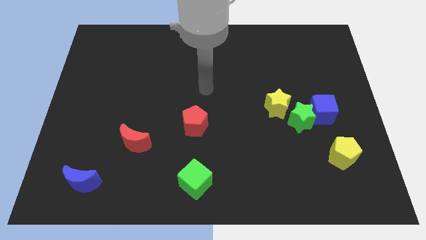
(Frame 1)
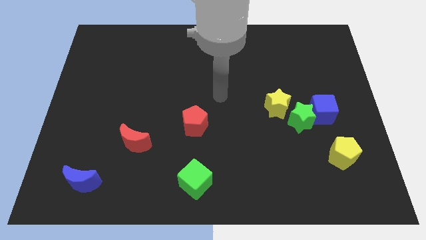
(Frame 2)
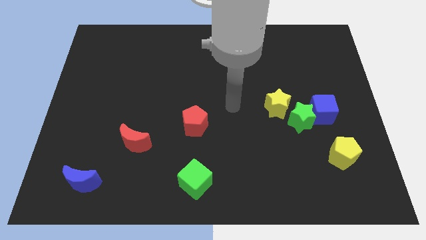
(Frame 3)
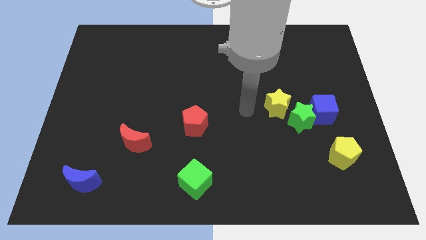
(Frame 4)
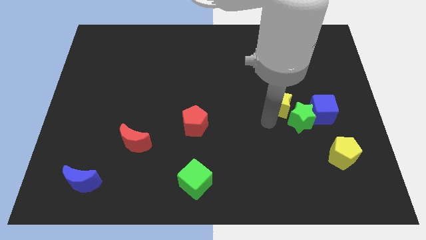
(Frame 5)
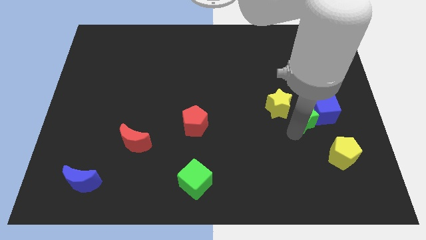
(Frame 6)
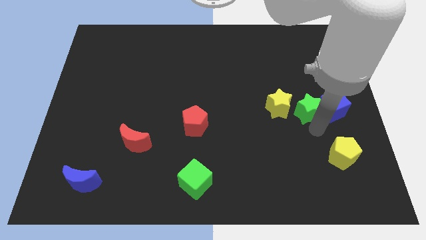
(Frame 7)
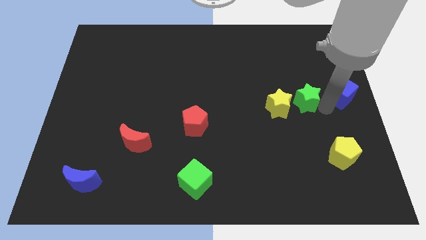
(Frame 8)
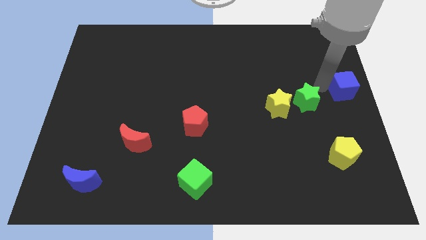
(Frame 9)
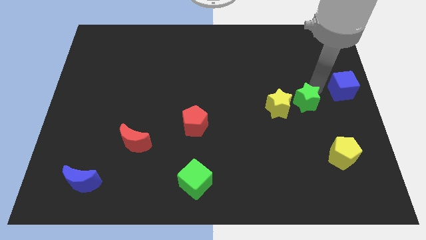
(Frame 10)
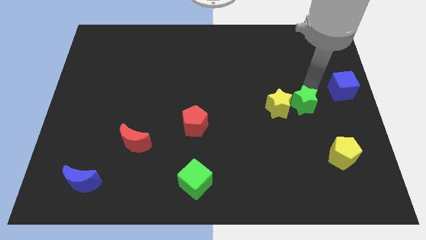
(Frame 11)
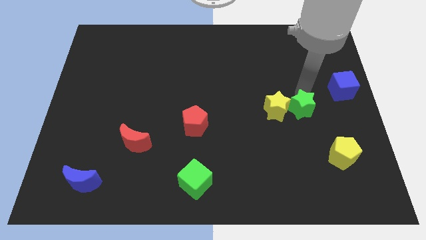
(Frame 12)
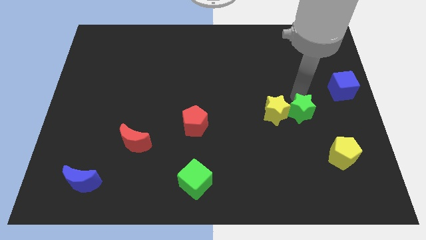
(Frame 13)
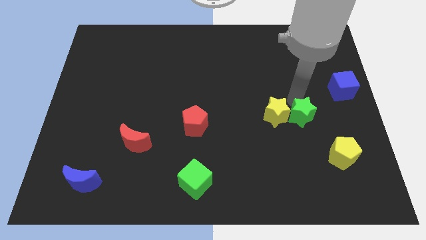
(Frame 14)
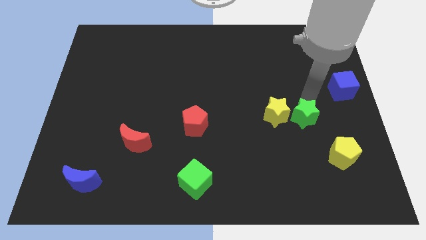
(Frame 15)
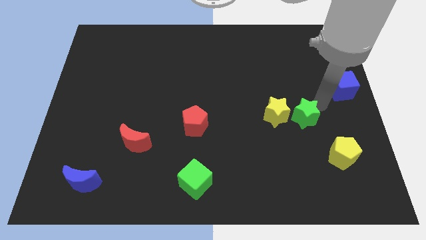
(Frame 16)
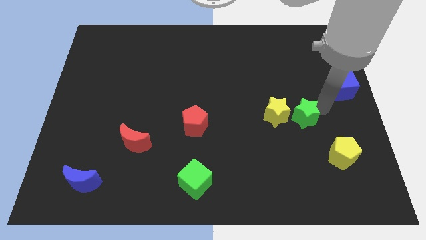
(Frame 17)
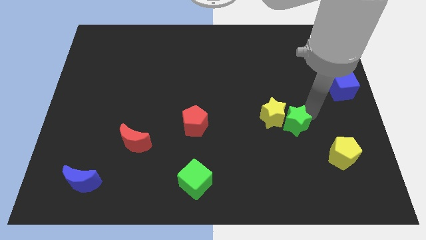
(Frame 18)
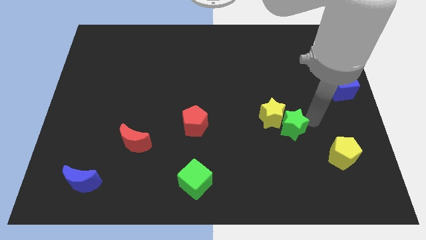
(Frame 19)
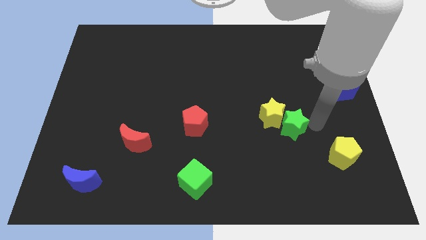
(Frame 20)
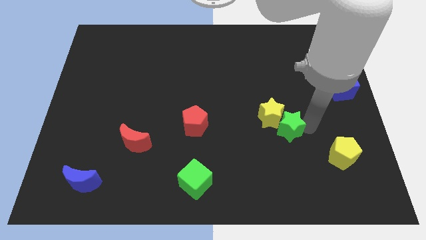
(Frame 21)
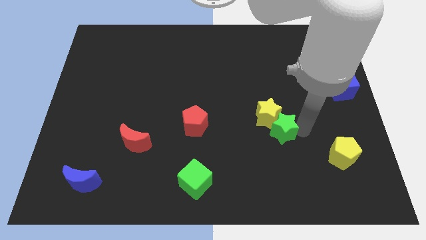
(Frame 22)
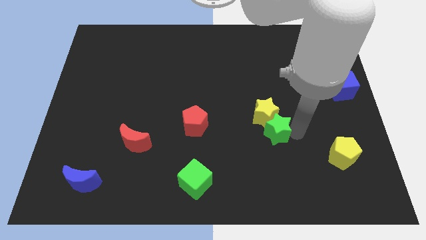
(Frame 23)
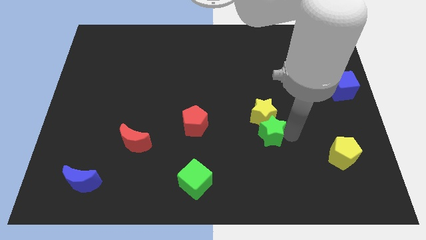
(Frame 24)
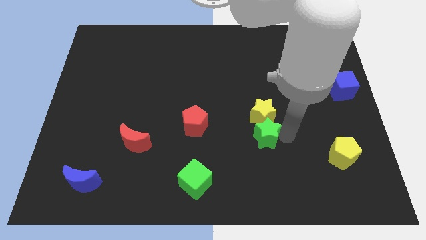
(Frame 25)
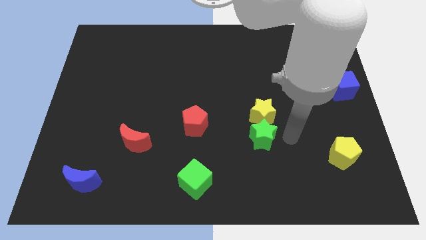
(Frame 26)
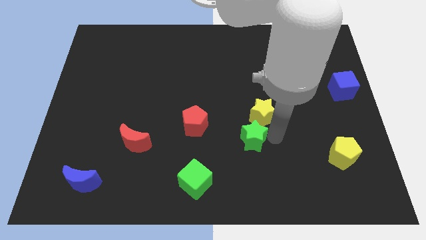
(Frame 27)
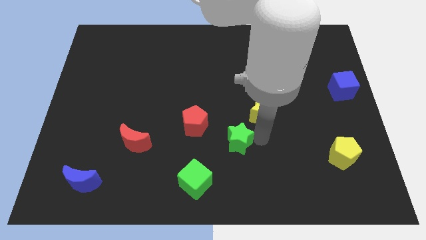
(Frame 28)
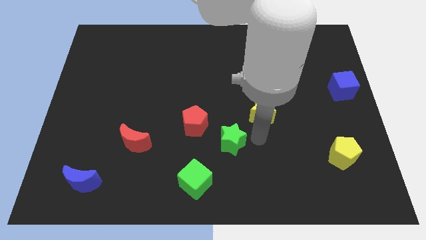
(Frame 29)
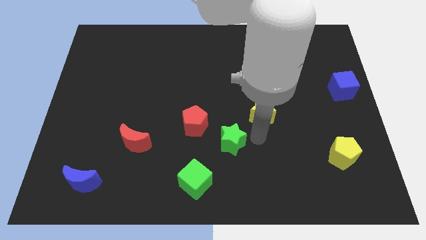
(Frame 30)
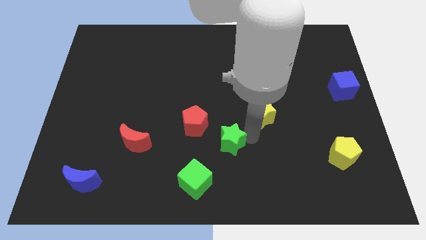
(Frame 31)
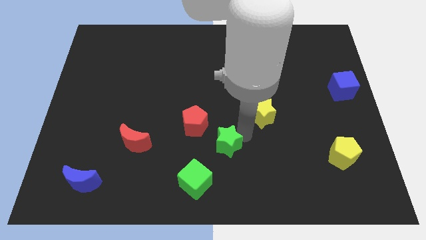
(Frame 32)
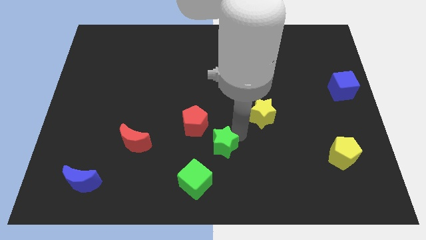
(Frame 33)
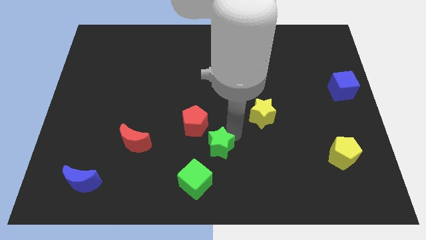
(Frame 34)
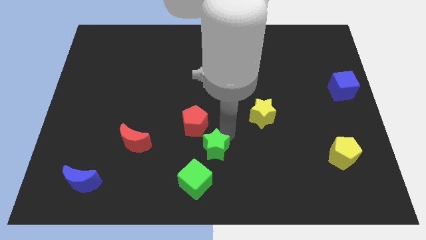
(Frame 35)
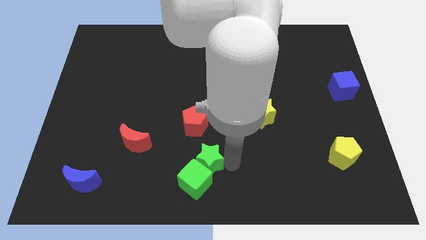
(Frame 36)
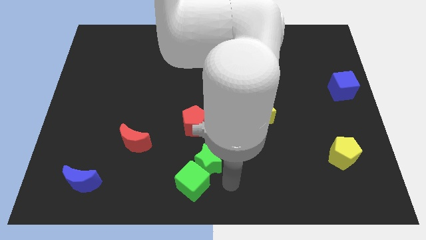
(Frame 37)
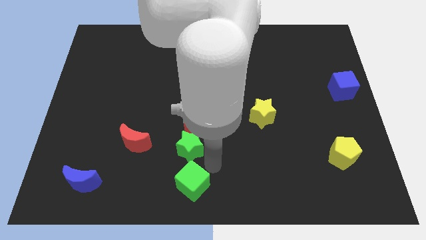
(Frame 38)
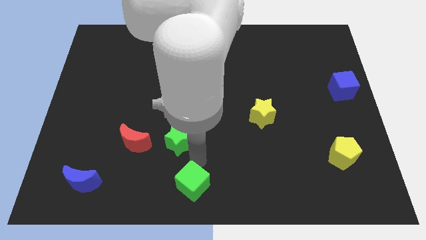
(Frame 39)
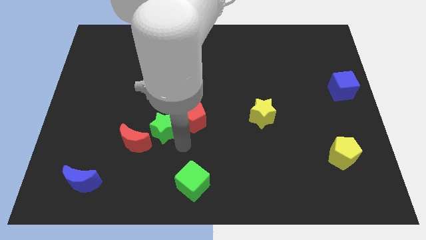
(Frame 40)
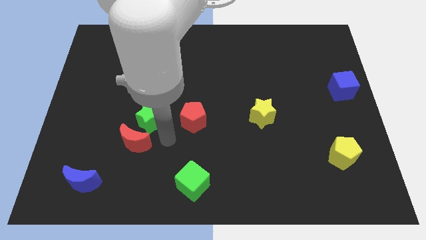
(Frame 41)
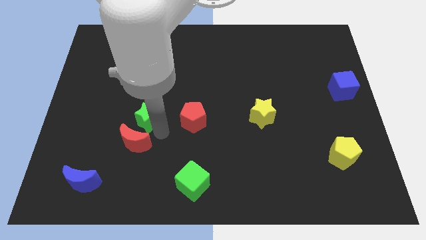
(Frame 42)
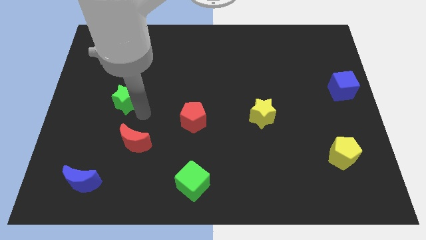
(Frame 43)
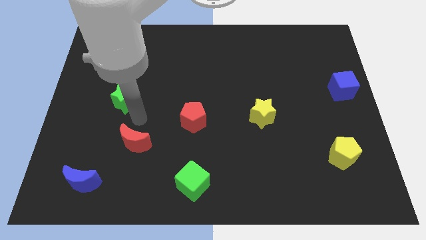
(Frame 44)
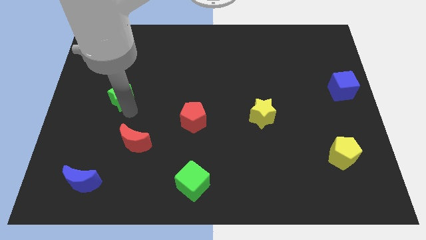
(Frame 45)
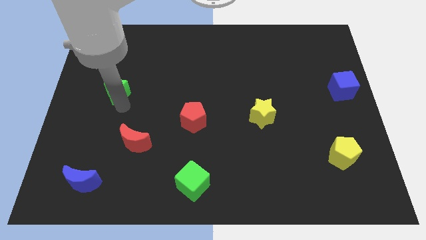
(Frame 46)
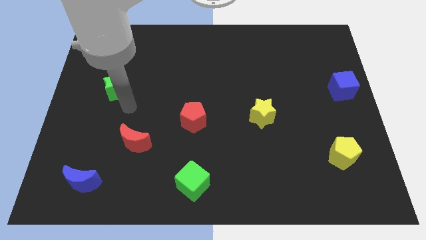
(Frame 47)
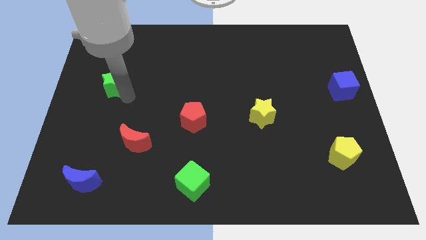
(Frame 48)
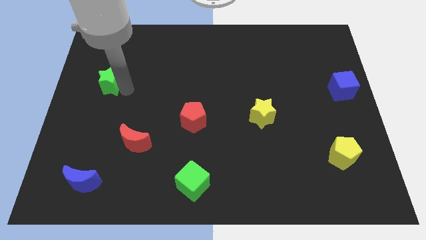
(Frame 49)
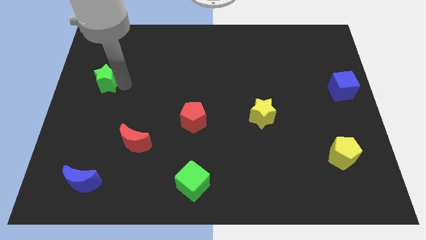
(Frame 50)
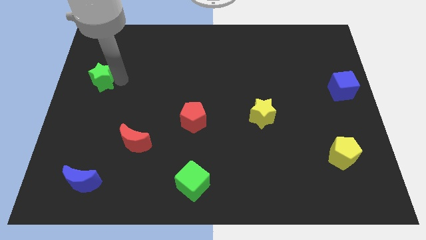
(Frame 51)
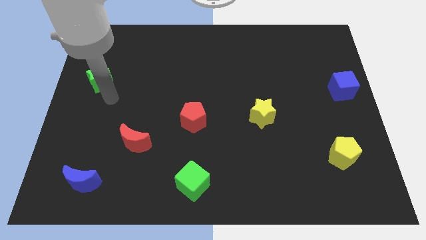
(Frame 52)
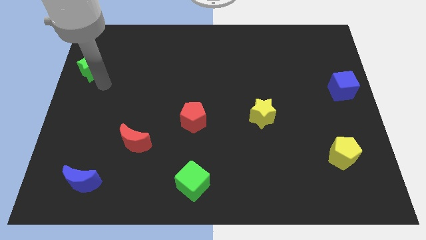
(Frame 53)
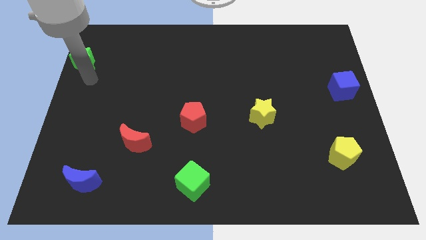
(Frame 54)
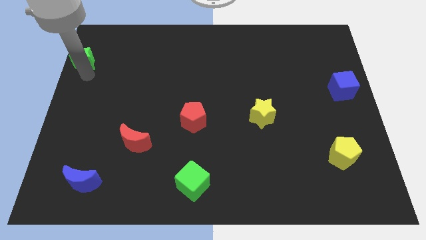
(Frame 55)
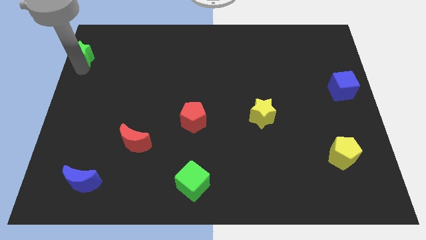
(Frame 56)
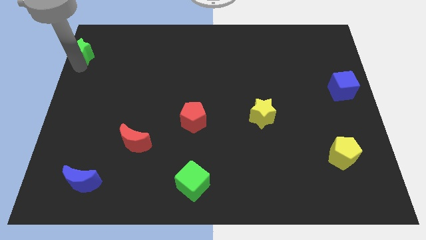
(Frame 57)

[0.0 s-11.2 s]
move the green star to the top left corner

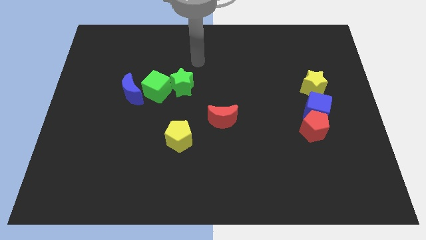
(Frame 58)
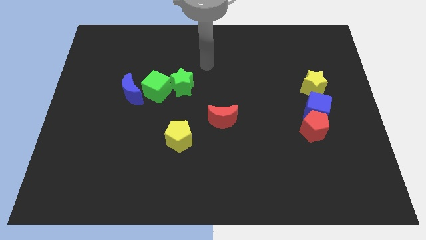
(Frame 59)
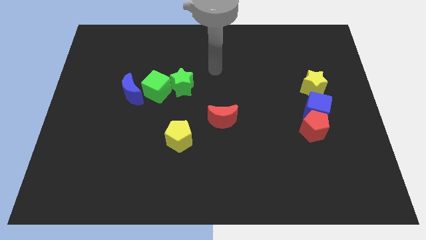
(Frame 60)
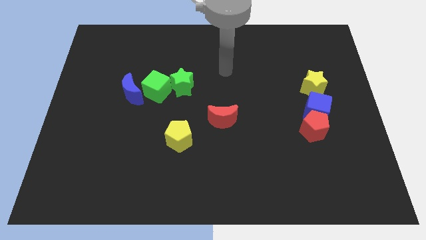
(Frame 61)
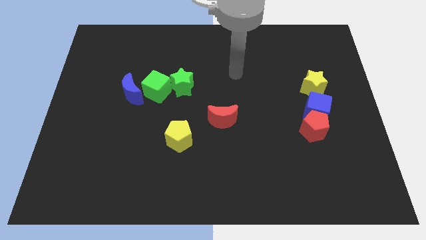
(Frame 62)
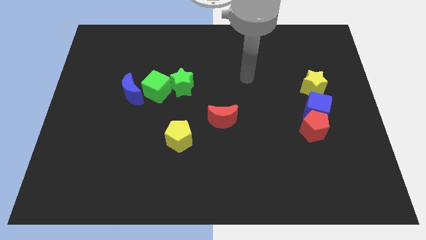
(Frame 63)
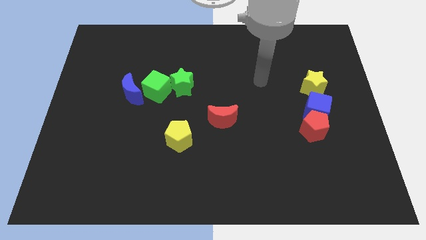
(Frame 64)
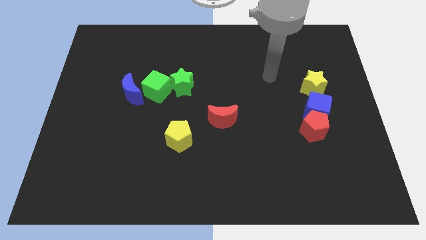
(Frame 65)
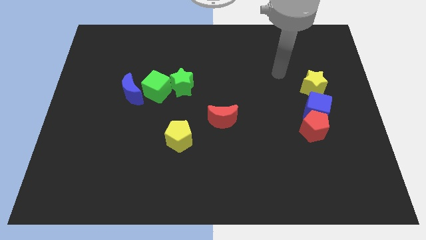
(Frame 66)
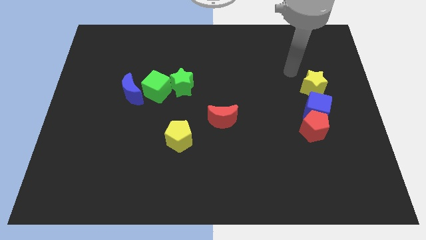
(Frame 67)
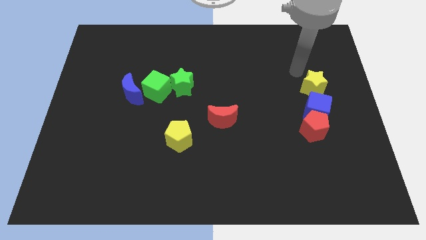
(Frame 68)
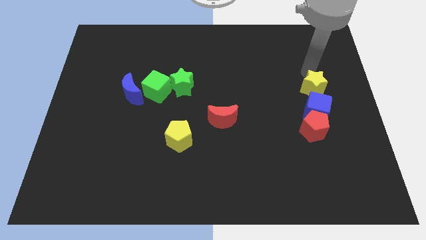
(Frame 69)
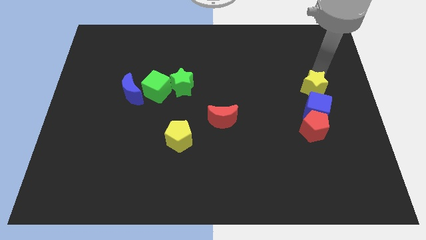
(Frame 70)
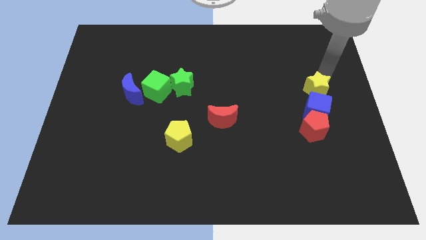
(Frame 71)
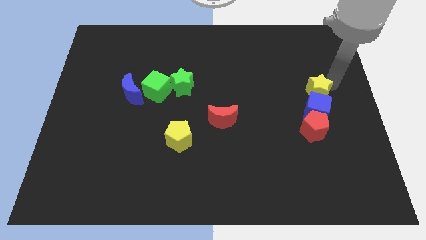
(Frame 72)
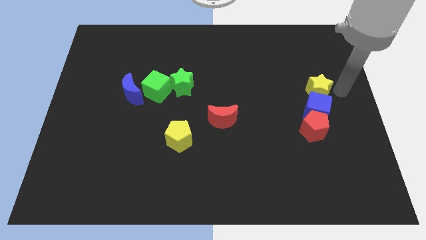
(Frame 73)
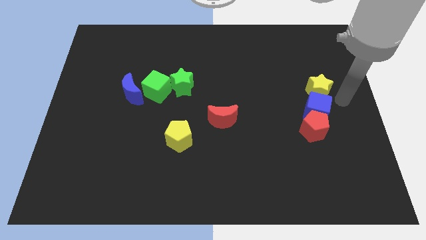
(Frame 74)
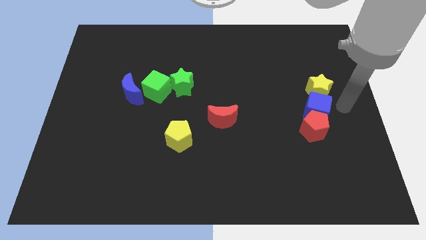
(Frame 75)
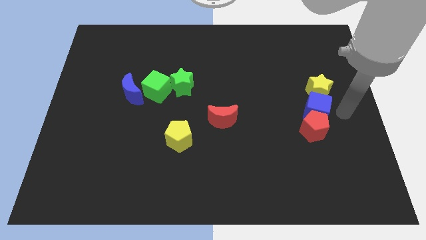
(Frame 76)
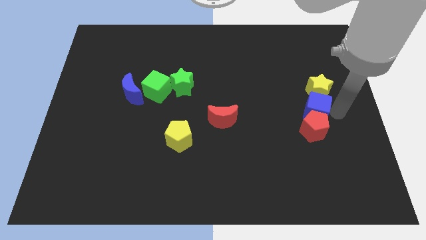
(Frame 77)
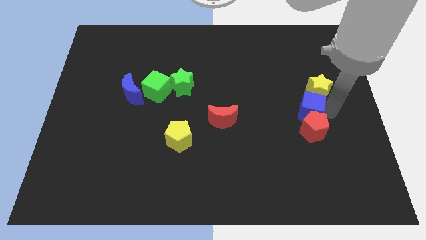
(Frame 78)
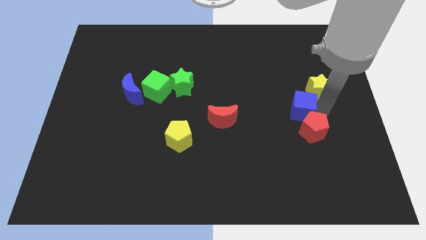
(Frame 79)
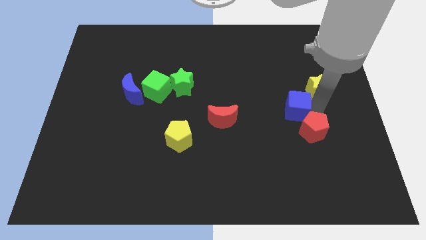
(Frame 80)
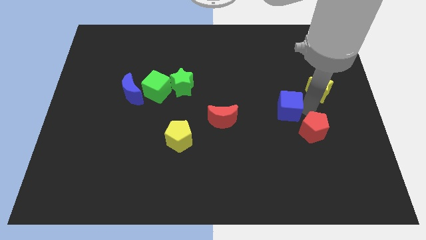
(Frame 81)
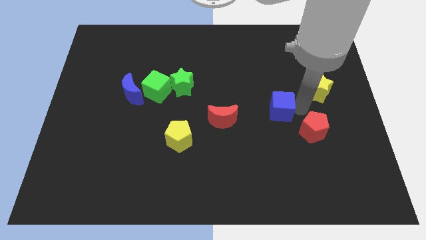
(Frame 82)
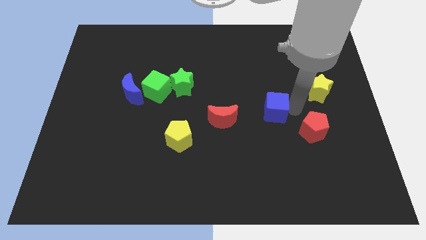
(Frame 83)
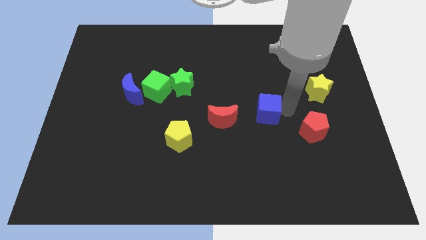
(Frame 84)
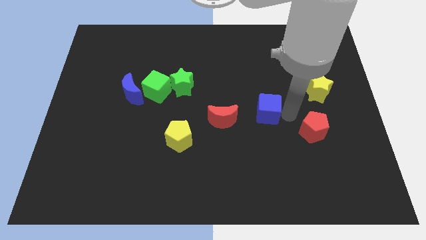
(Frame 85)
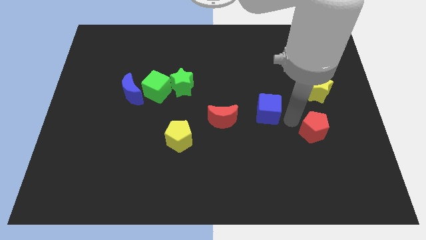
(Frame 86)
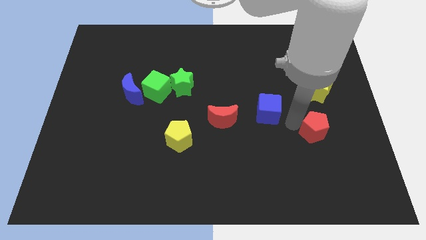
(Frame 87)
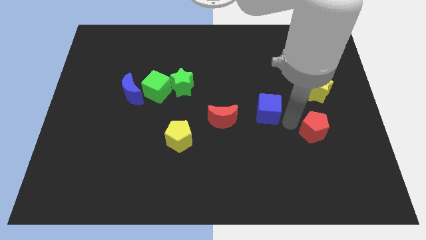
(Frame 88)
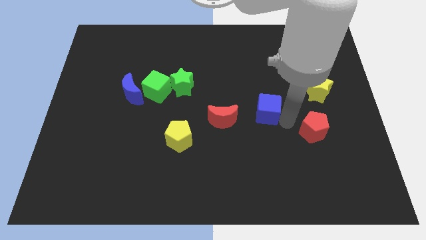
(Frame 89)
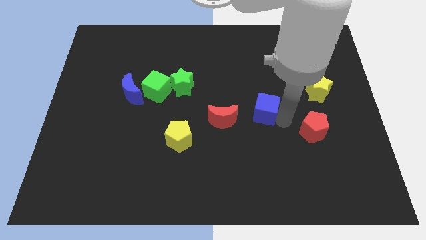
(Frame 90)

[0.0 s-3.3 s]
slide the blue cube to the middle
